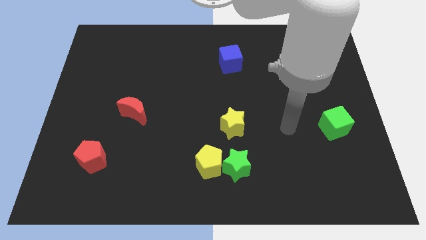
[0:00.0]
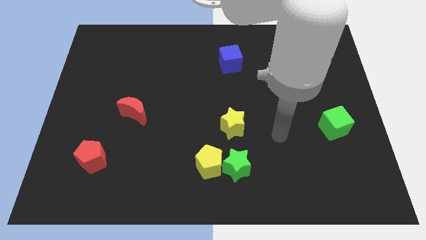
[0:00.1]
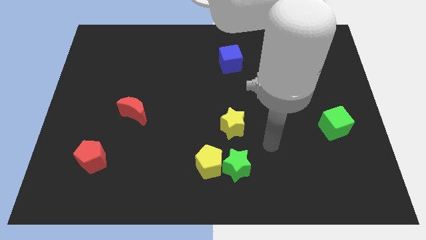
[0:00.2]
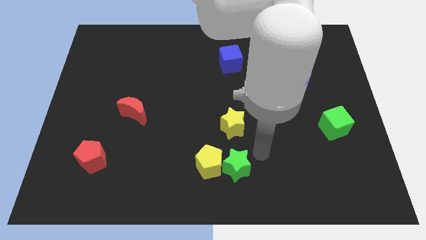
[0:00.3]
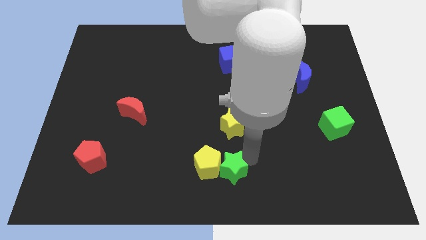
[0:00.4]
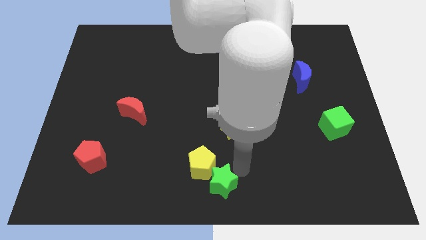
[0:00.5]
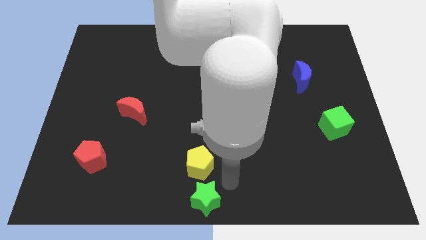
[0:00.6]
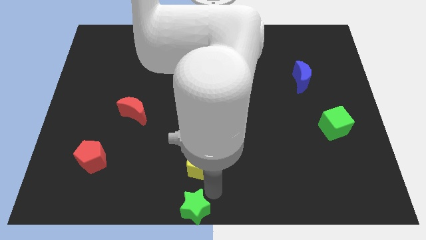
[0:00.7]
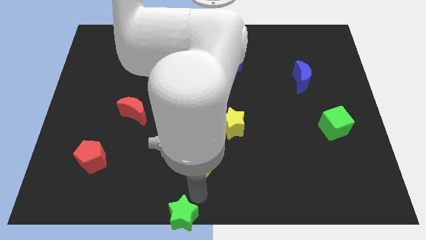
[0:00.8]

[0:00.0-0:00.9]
pull the yellow pentagon apart from the green star

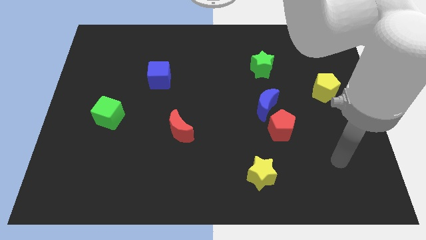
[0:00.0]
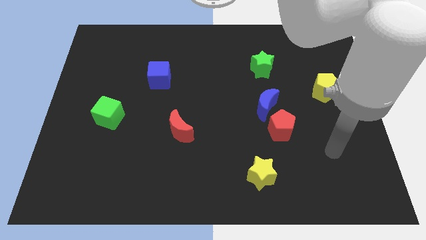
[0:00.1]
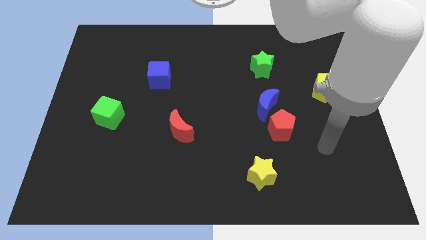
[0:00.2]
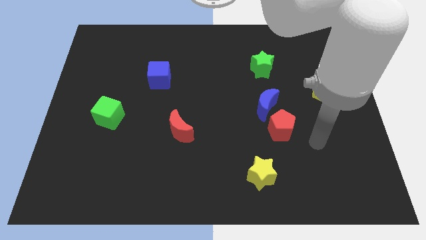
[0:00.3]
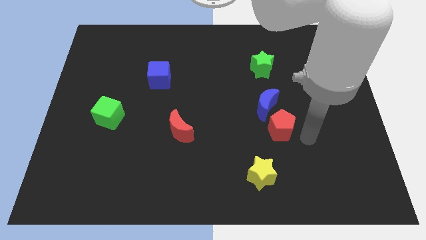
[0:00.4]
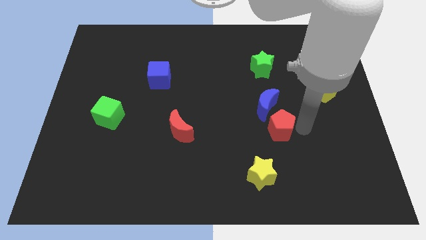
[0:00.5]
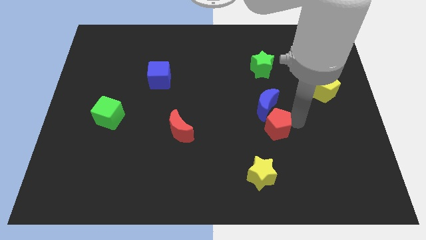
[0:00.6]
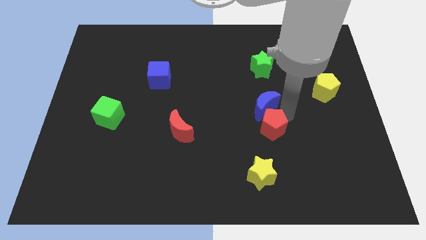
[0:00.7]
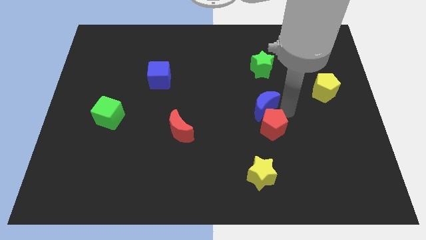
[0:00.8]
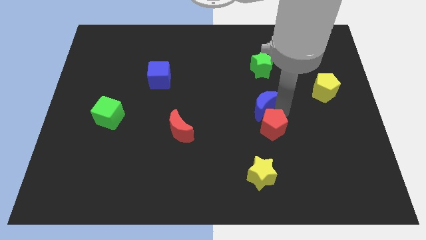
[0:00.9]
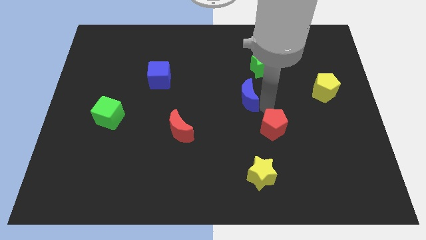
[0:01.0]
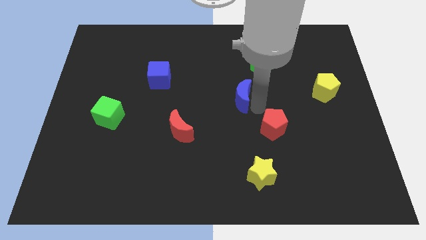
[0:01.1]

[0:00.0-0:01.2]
separate the red pentagon from the blue moon

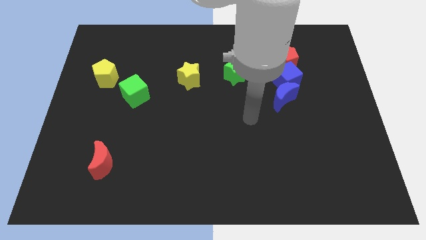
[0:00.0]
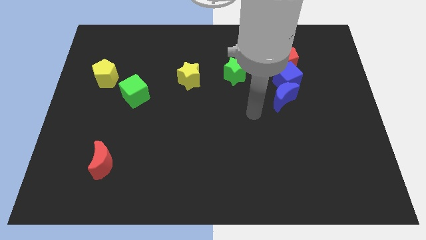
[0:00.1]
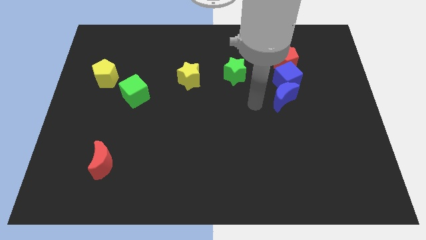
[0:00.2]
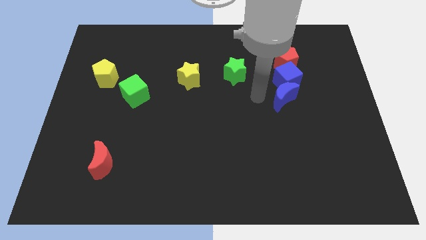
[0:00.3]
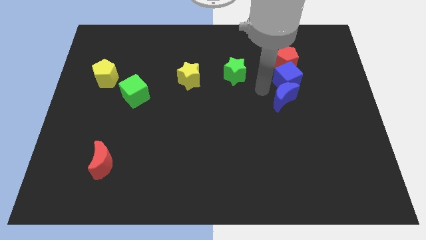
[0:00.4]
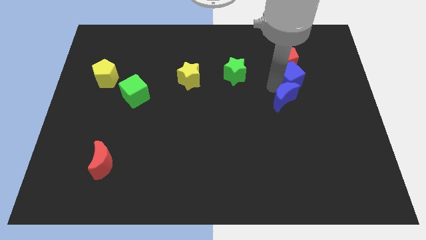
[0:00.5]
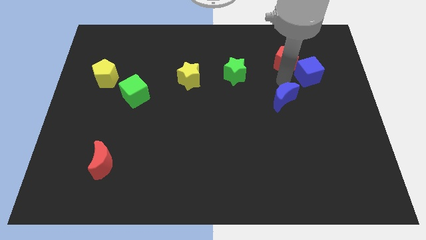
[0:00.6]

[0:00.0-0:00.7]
separate the blue moon from the blue cube

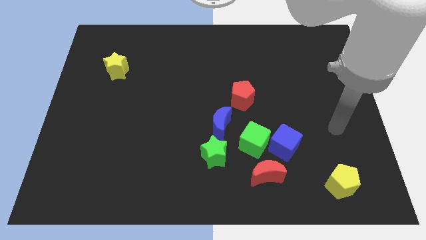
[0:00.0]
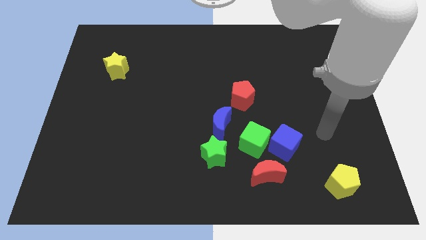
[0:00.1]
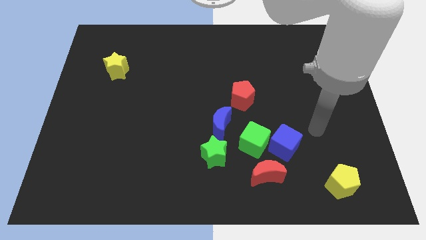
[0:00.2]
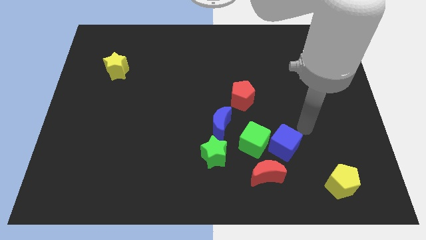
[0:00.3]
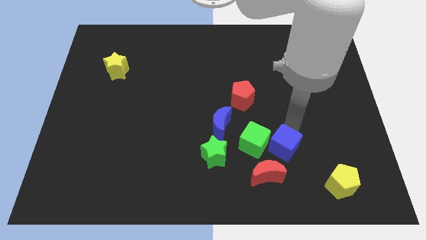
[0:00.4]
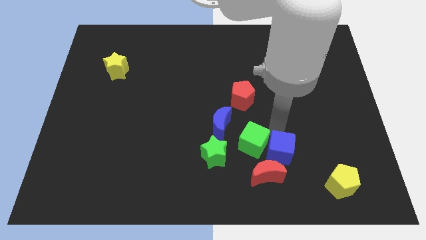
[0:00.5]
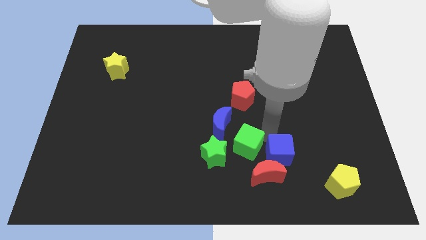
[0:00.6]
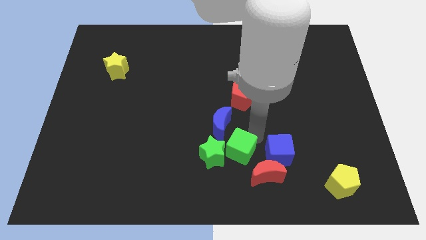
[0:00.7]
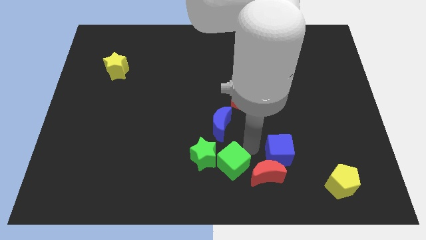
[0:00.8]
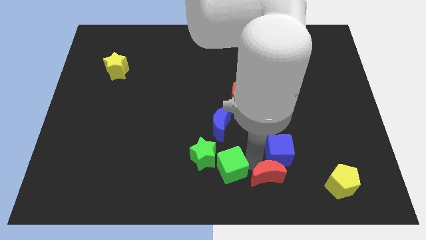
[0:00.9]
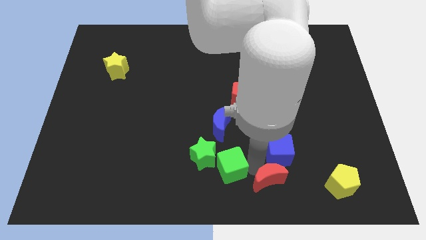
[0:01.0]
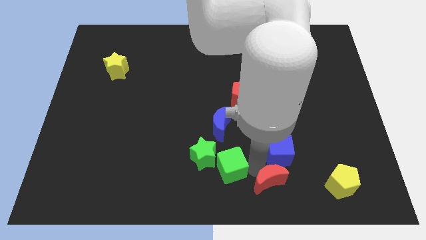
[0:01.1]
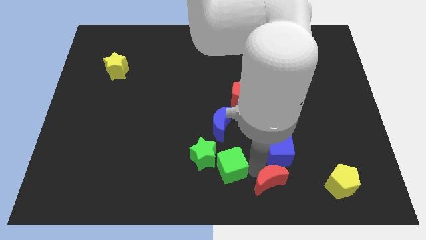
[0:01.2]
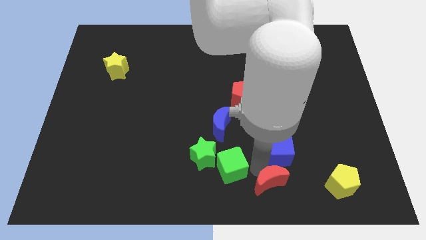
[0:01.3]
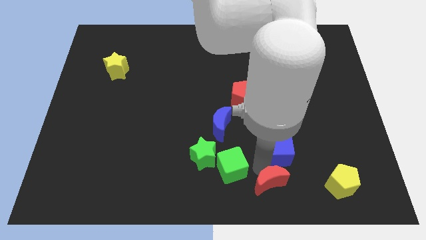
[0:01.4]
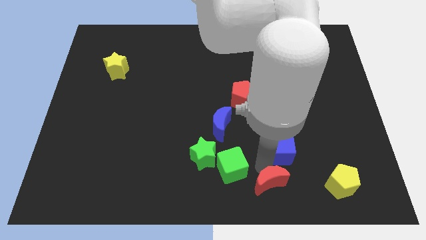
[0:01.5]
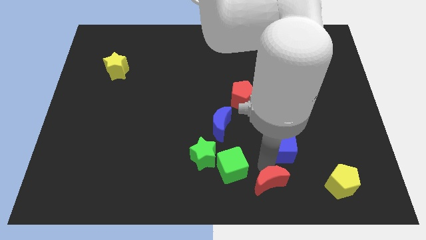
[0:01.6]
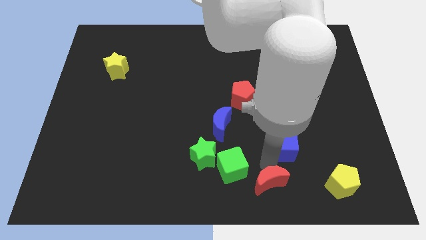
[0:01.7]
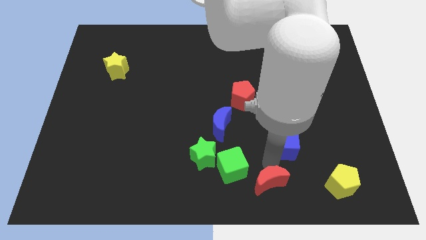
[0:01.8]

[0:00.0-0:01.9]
separate the blue cube from the green cube and red moon

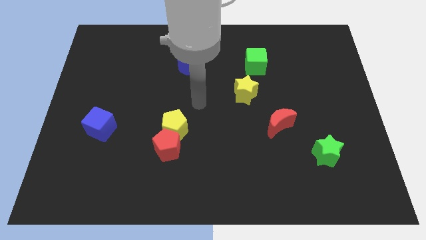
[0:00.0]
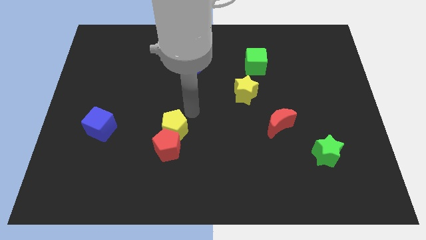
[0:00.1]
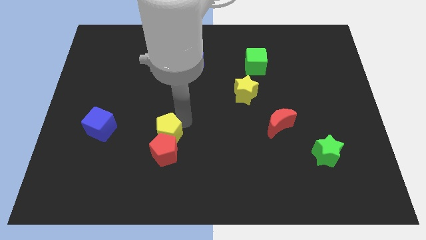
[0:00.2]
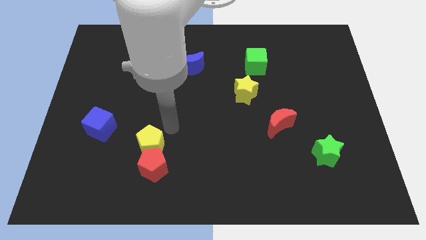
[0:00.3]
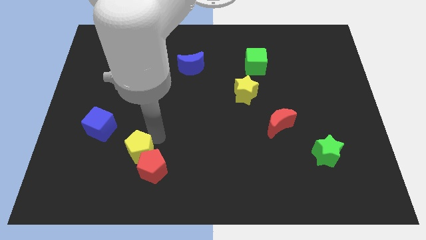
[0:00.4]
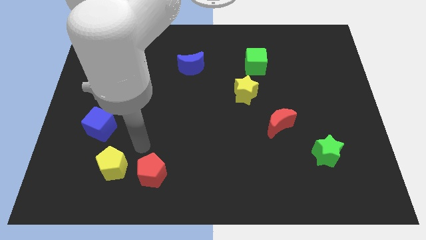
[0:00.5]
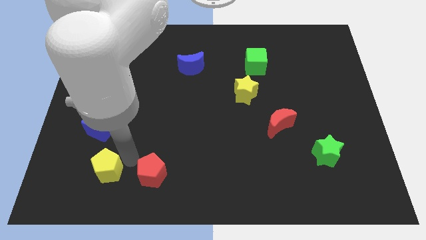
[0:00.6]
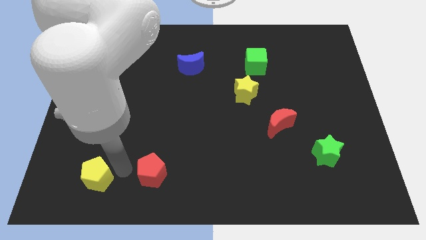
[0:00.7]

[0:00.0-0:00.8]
pull the red pentagon apart from the yellow pentagon

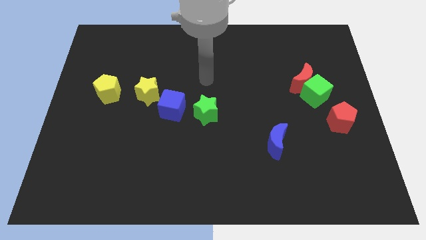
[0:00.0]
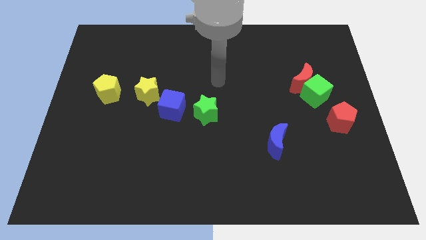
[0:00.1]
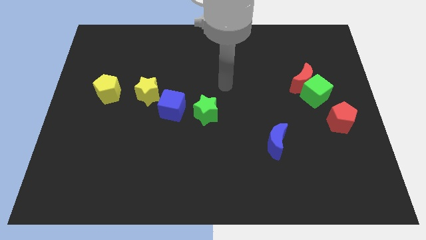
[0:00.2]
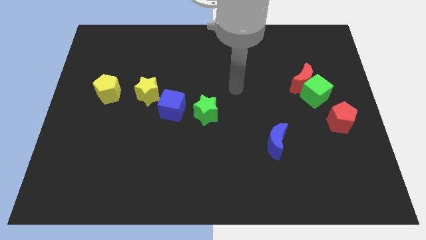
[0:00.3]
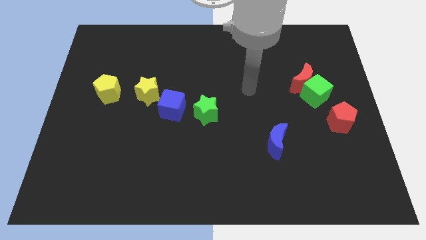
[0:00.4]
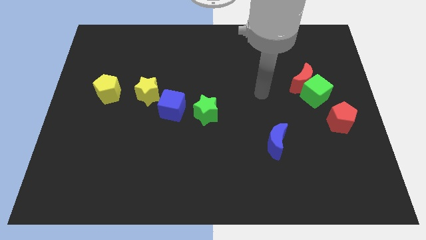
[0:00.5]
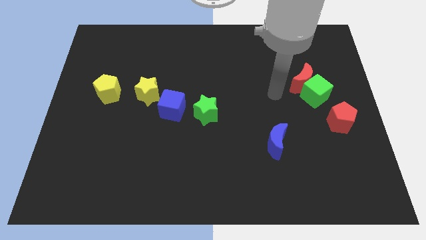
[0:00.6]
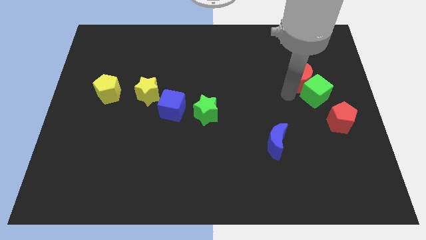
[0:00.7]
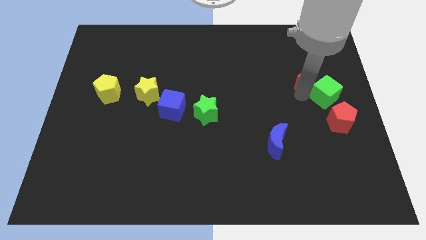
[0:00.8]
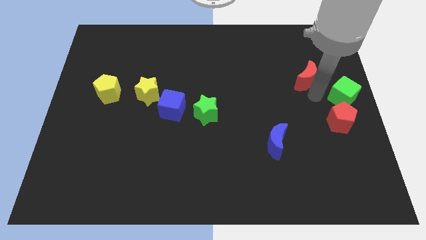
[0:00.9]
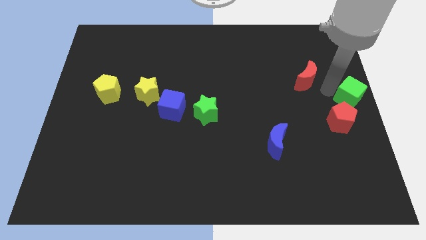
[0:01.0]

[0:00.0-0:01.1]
move the red moon away from the green cube

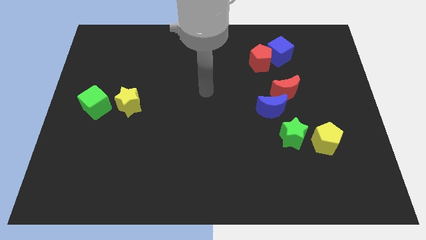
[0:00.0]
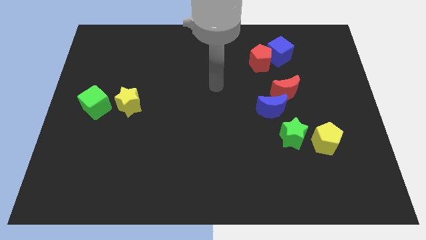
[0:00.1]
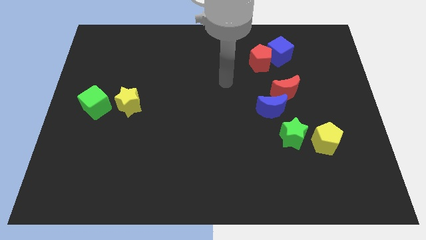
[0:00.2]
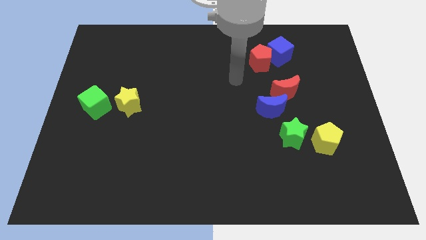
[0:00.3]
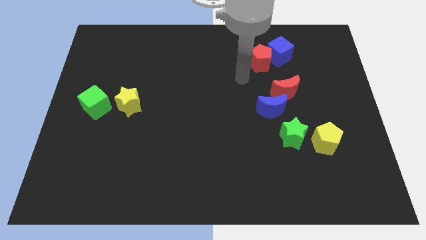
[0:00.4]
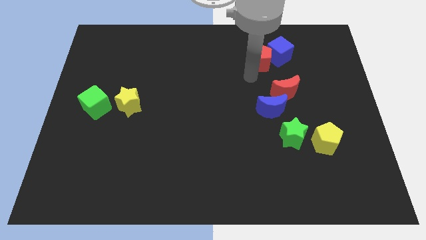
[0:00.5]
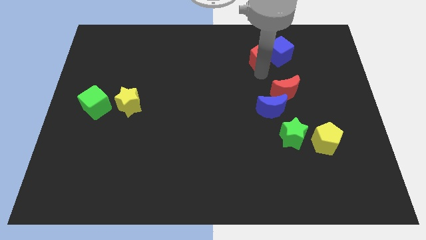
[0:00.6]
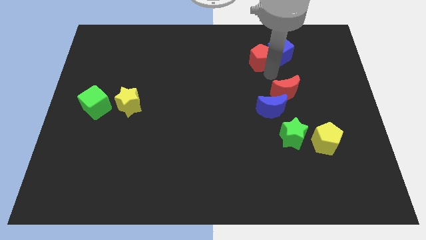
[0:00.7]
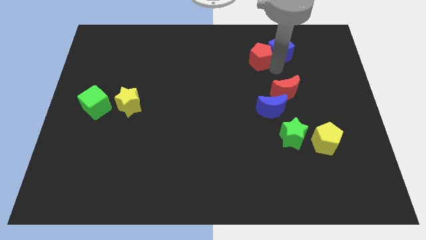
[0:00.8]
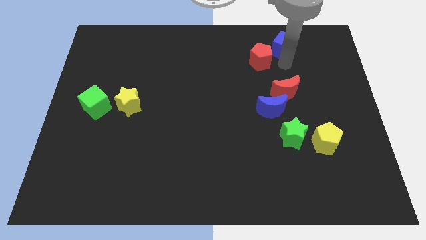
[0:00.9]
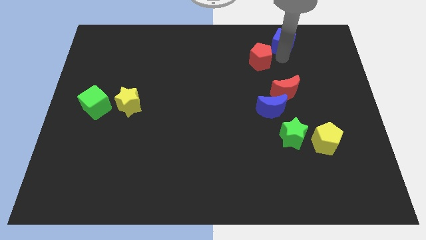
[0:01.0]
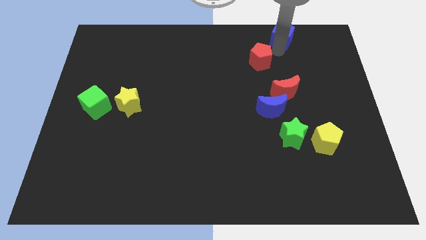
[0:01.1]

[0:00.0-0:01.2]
separate the red pentagon from the blue cube

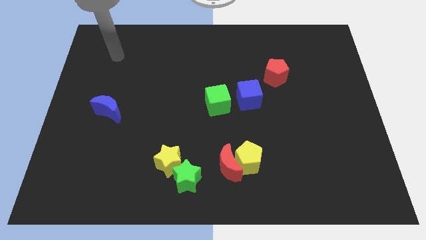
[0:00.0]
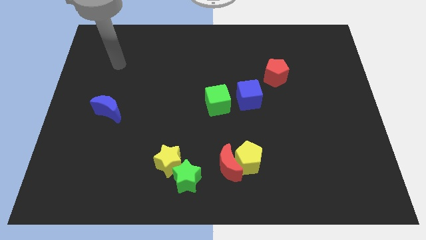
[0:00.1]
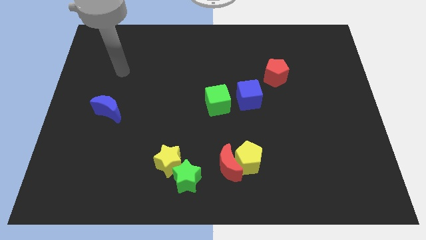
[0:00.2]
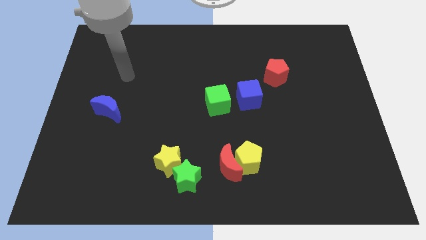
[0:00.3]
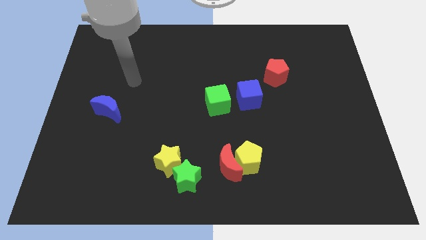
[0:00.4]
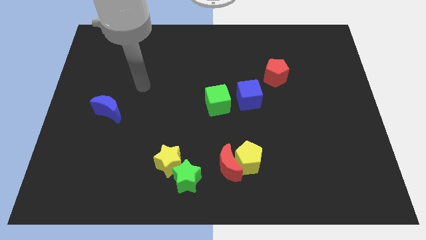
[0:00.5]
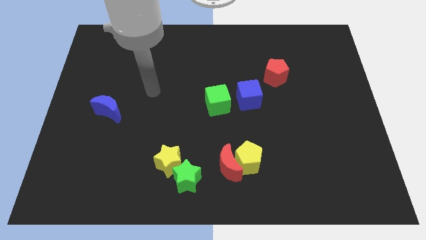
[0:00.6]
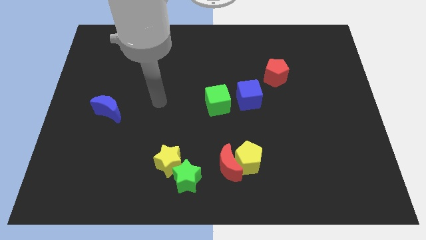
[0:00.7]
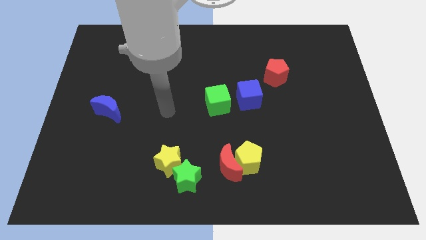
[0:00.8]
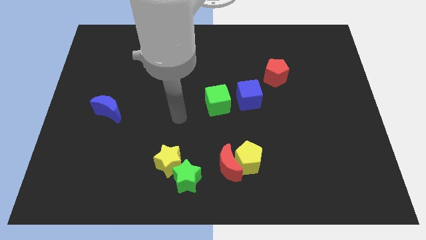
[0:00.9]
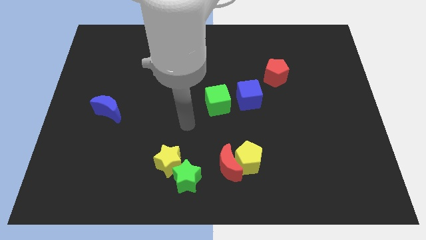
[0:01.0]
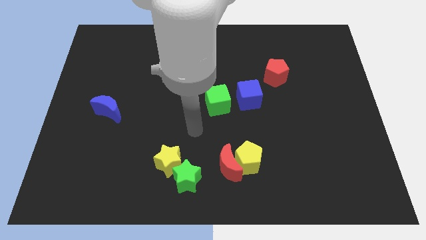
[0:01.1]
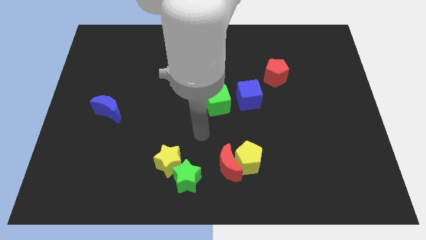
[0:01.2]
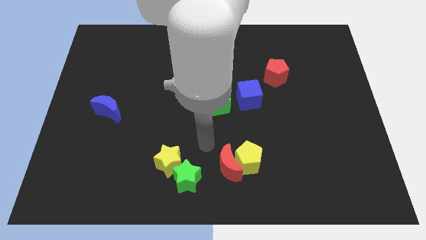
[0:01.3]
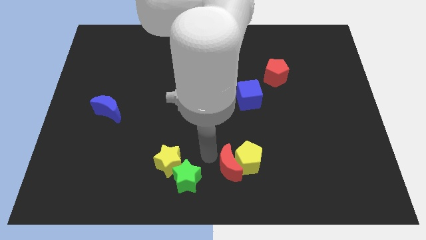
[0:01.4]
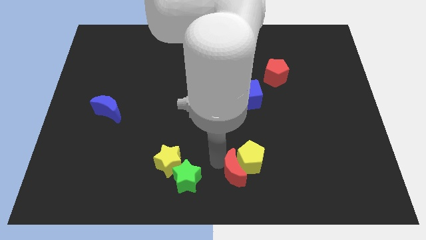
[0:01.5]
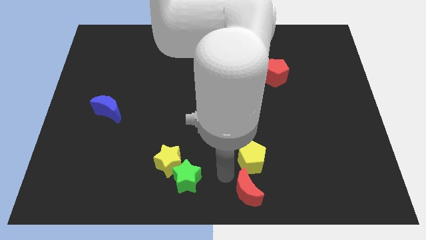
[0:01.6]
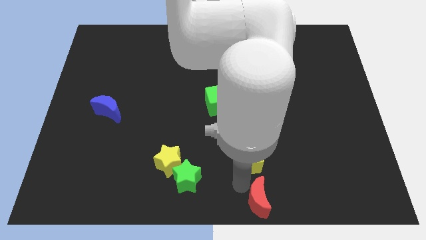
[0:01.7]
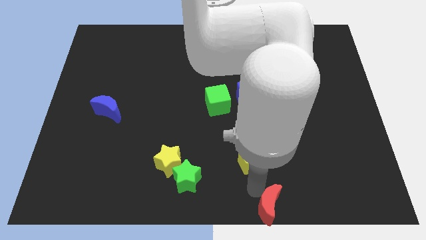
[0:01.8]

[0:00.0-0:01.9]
move the yellow pentagon away from the red moon
